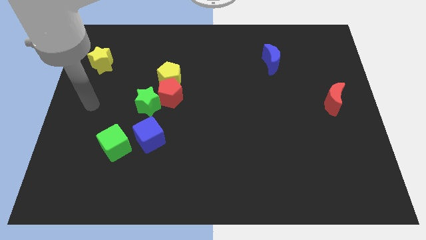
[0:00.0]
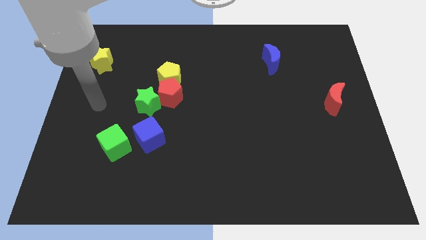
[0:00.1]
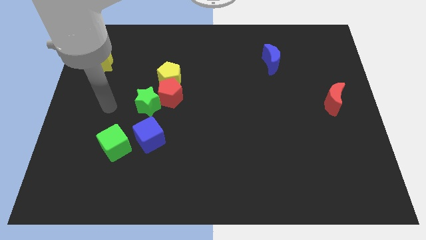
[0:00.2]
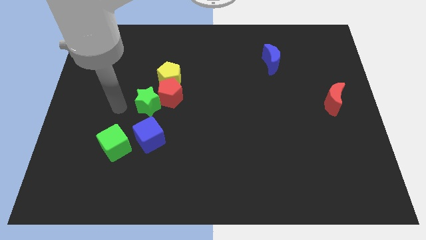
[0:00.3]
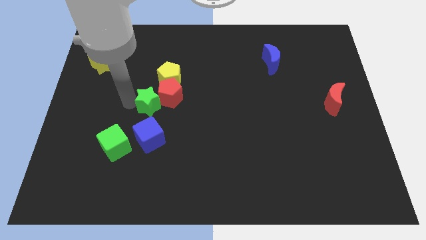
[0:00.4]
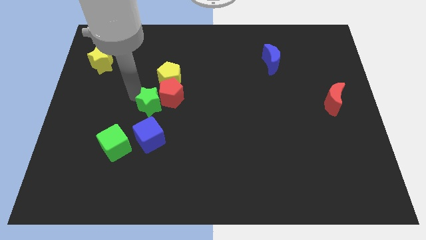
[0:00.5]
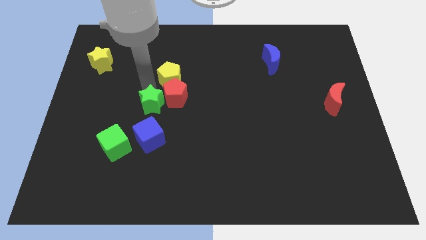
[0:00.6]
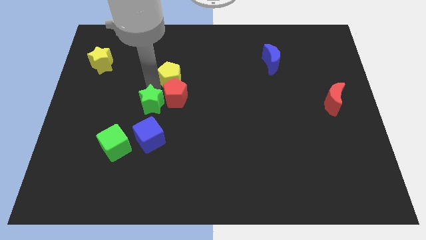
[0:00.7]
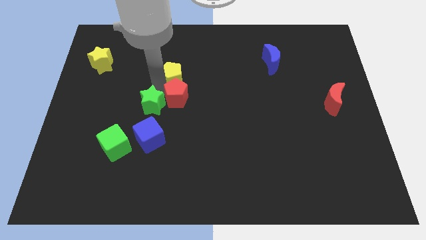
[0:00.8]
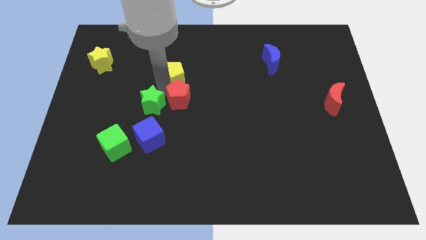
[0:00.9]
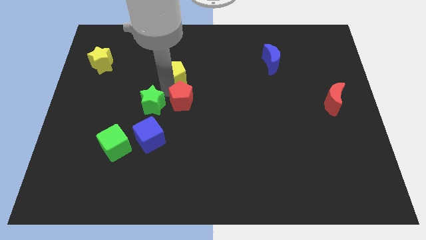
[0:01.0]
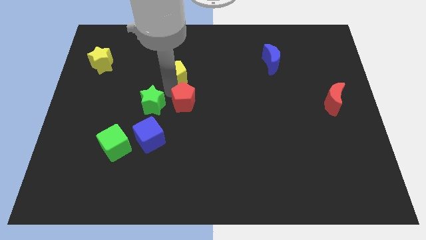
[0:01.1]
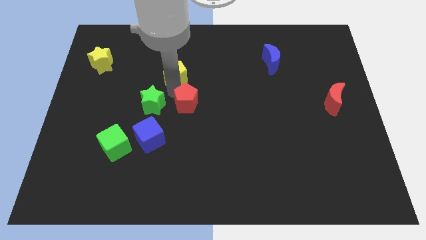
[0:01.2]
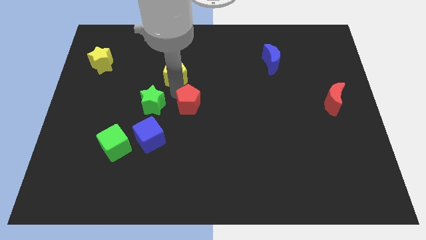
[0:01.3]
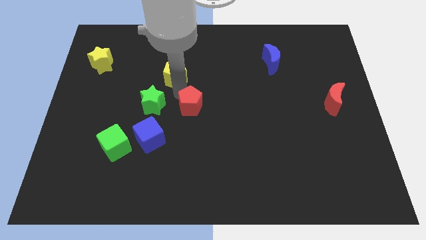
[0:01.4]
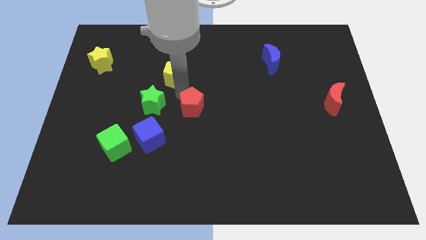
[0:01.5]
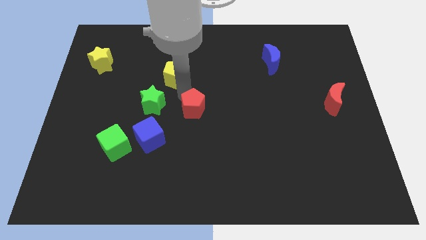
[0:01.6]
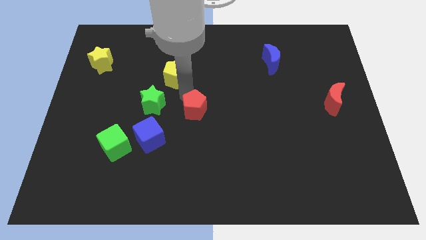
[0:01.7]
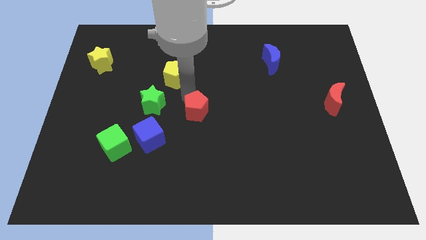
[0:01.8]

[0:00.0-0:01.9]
move the red pentagon away from the yellow pentagon and green star

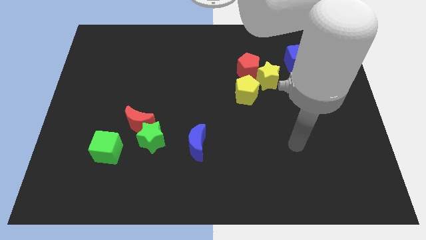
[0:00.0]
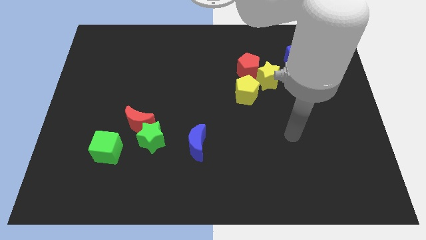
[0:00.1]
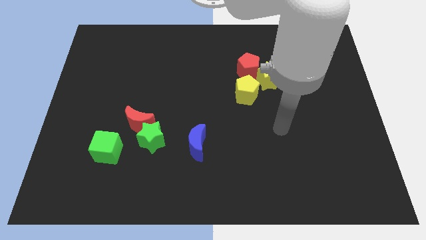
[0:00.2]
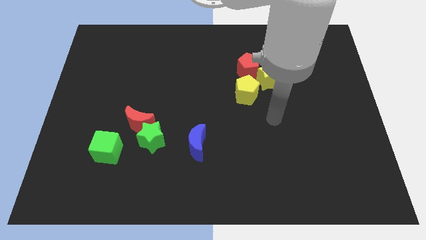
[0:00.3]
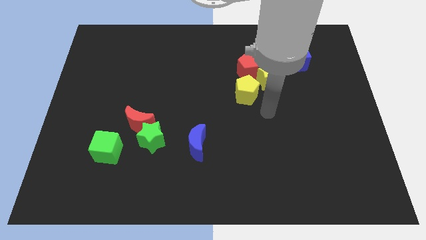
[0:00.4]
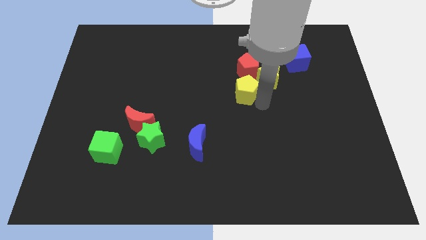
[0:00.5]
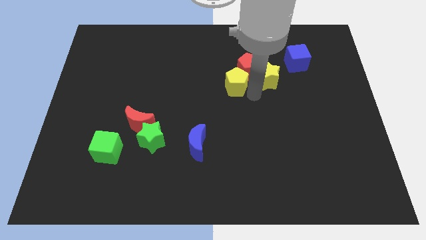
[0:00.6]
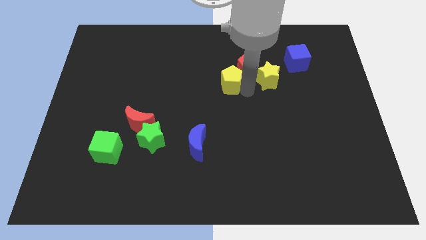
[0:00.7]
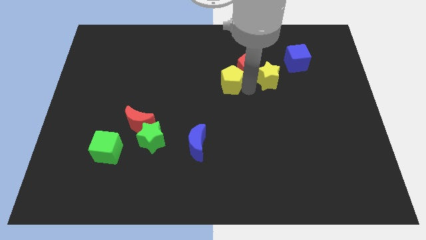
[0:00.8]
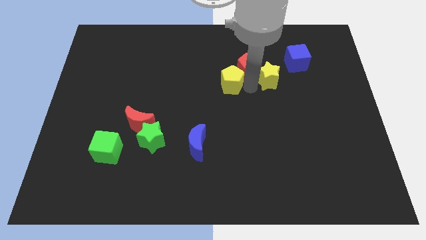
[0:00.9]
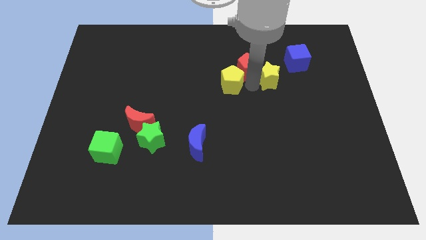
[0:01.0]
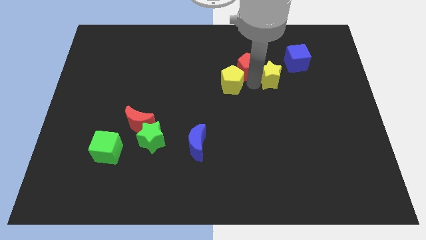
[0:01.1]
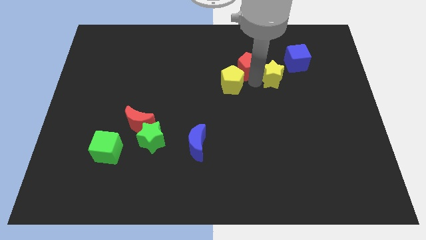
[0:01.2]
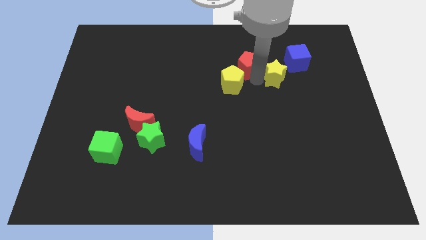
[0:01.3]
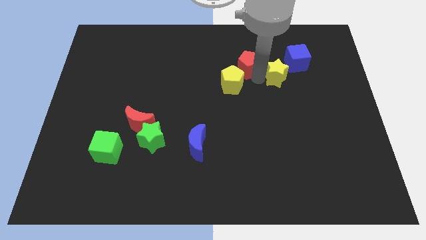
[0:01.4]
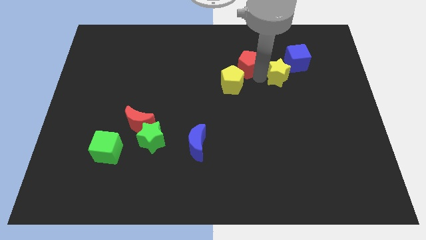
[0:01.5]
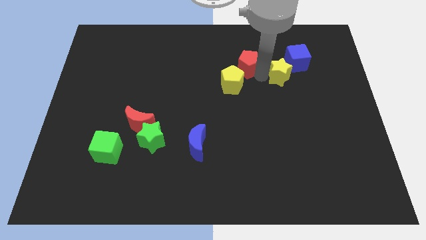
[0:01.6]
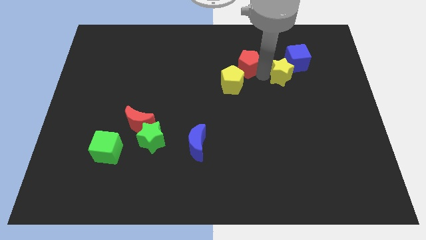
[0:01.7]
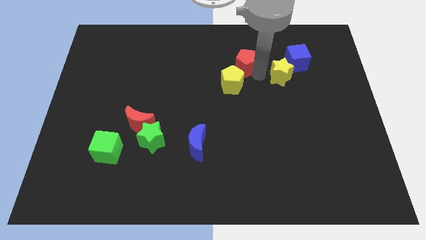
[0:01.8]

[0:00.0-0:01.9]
separate the yellow star from the red pentagon and yellow pentagon

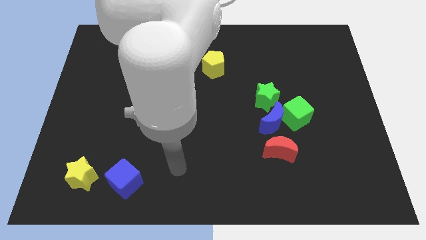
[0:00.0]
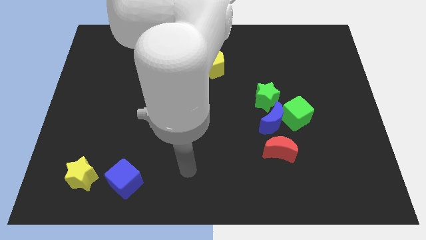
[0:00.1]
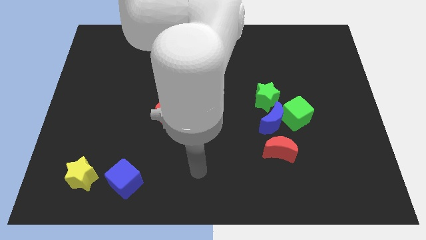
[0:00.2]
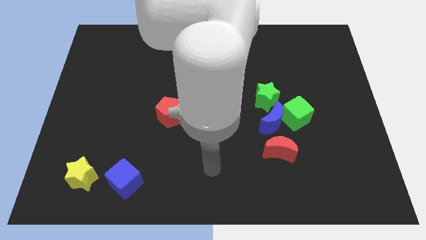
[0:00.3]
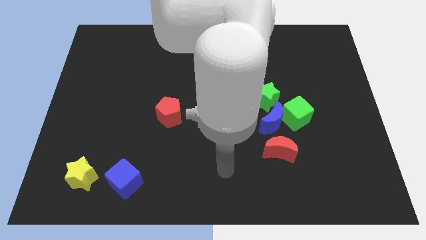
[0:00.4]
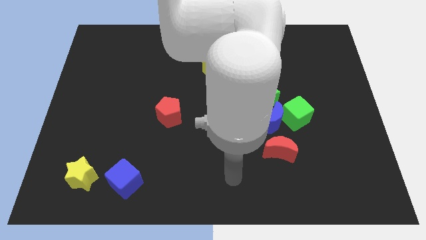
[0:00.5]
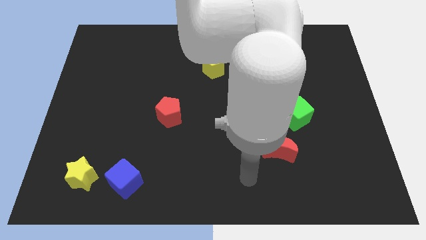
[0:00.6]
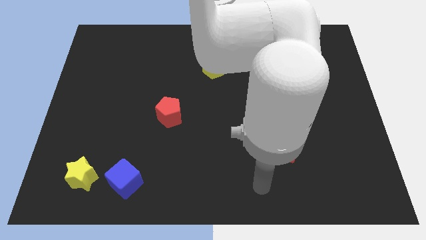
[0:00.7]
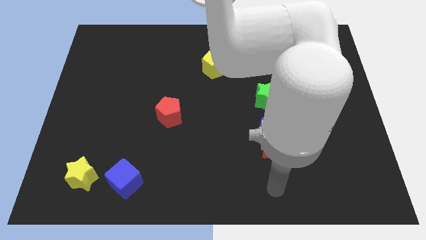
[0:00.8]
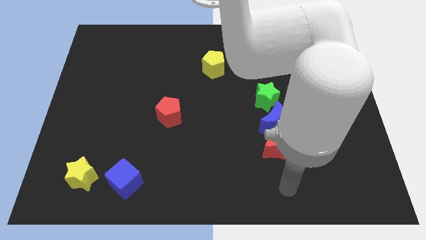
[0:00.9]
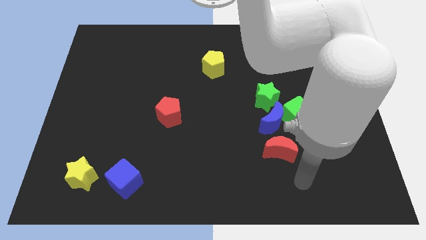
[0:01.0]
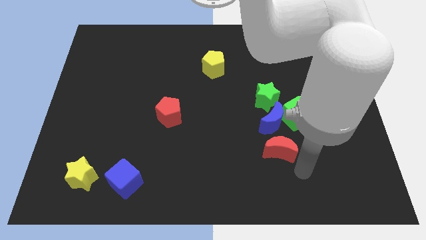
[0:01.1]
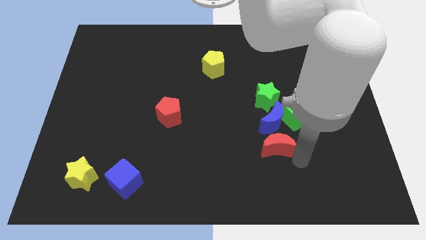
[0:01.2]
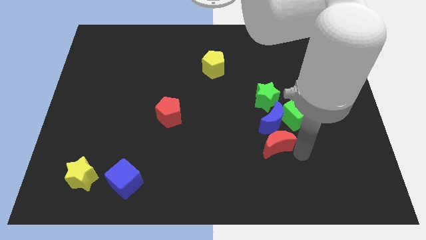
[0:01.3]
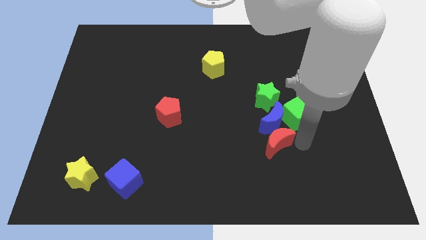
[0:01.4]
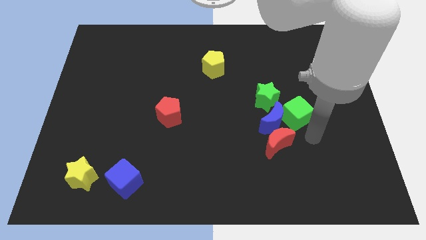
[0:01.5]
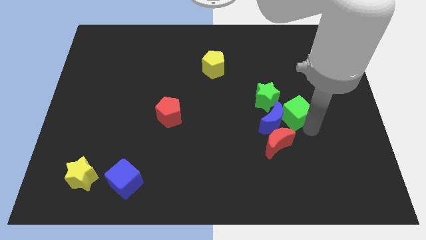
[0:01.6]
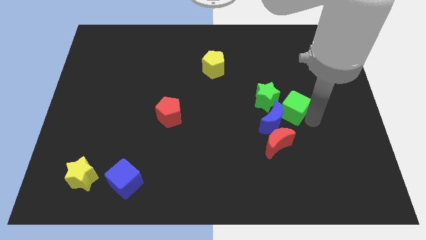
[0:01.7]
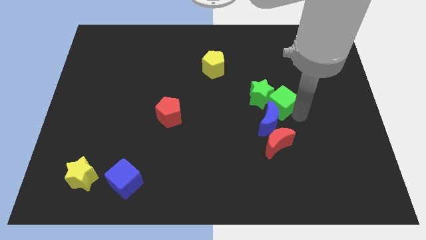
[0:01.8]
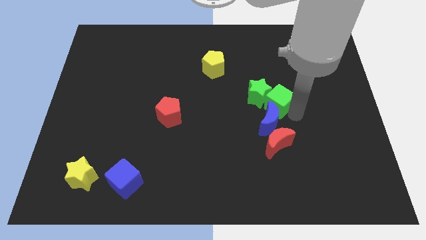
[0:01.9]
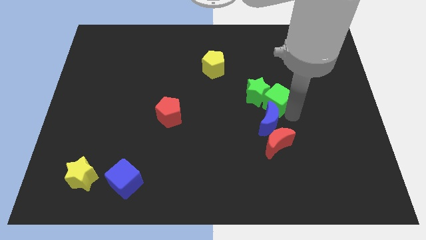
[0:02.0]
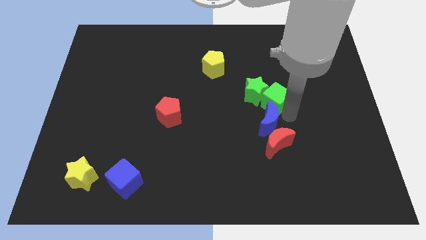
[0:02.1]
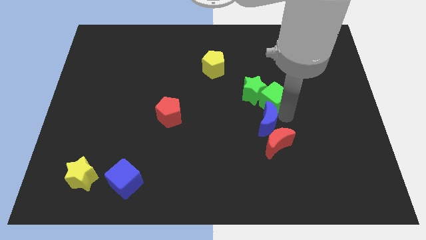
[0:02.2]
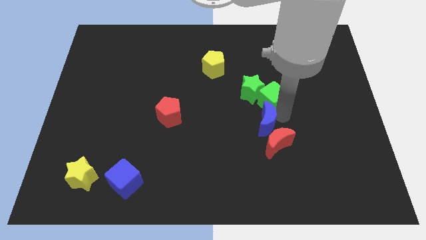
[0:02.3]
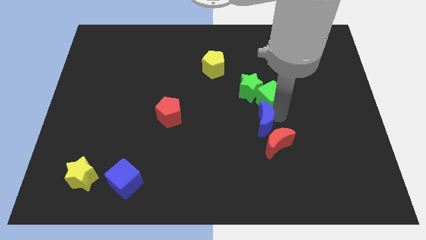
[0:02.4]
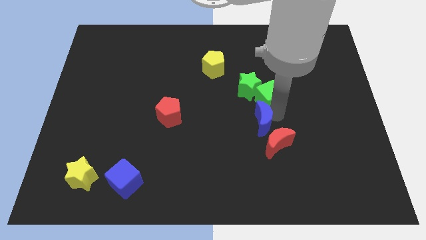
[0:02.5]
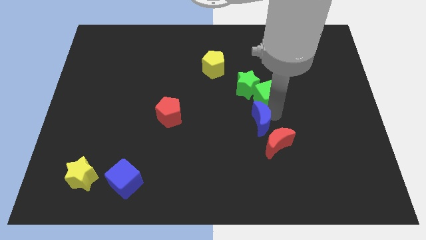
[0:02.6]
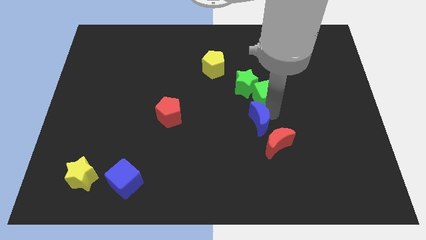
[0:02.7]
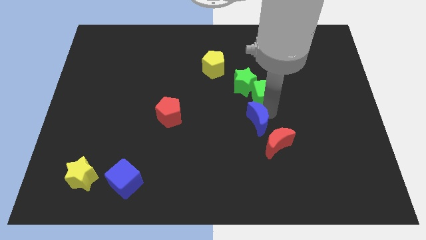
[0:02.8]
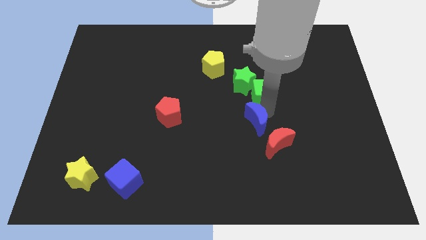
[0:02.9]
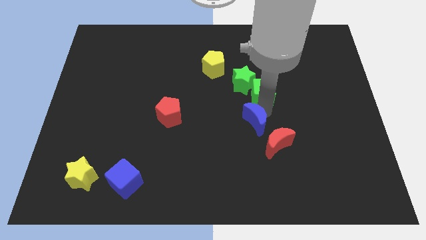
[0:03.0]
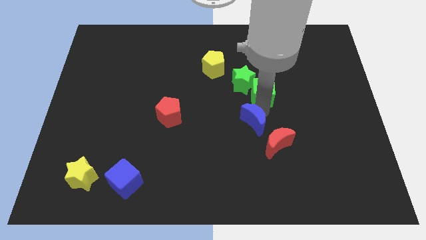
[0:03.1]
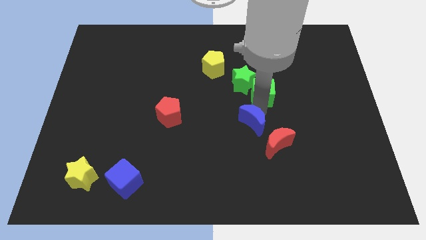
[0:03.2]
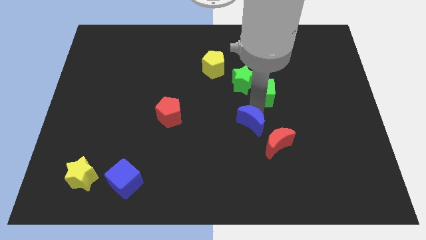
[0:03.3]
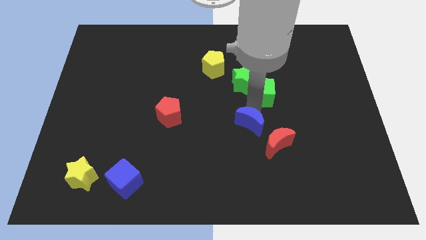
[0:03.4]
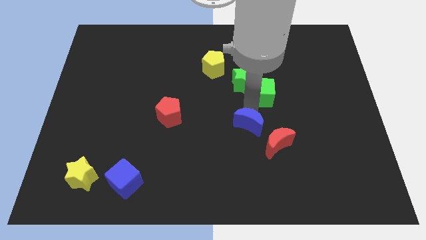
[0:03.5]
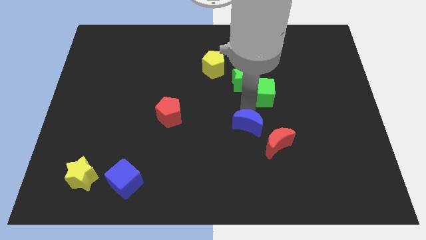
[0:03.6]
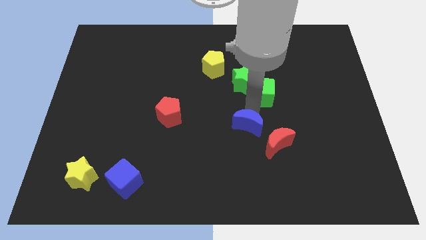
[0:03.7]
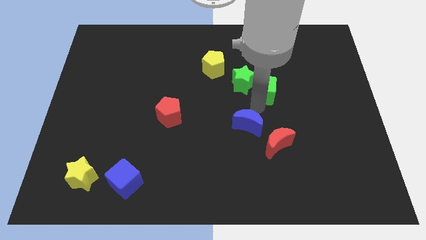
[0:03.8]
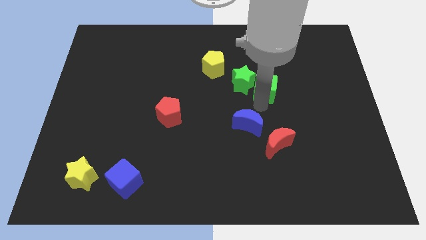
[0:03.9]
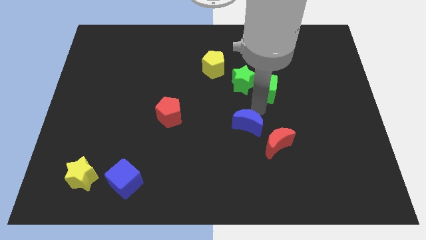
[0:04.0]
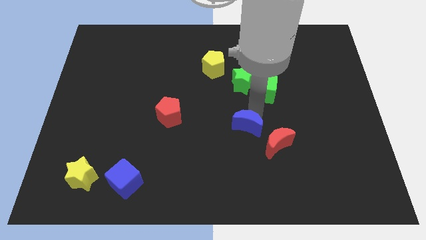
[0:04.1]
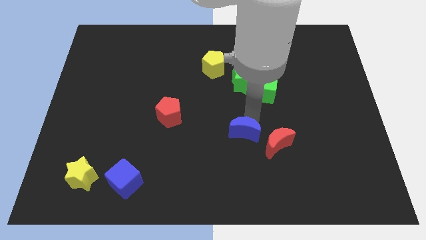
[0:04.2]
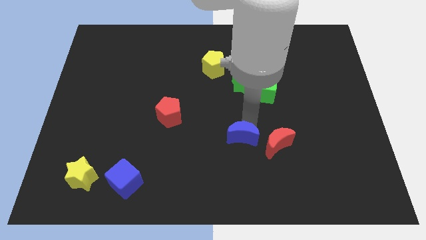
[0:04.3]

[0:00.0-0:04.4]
pull the blue moon apart from the green cube, green star, and red moon

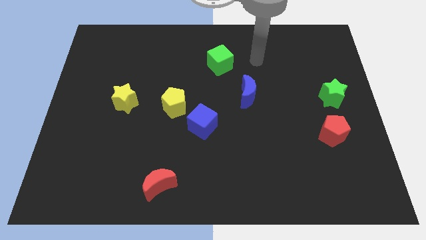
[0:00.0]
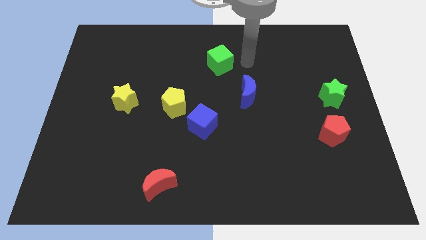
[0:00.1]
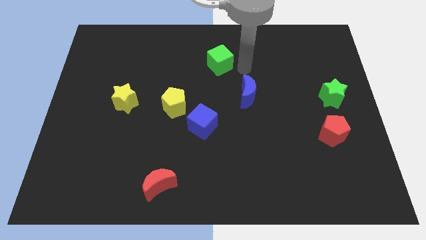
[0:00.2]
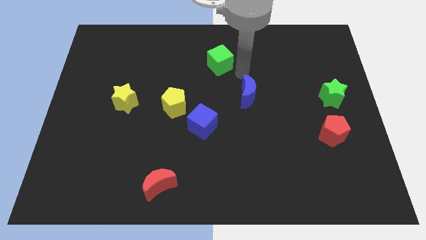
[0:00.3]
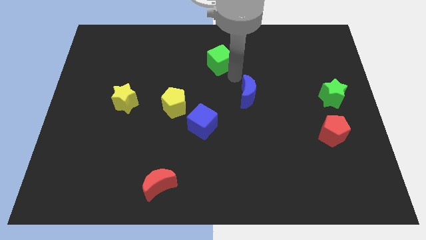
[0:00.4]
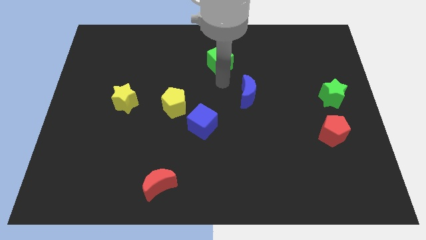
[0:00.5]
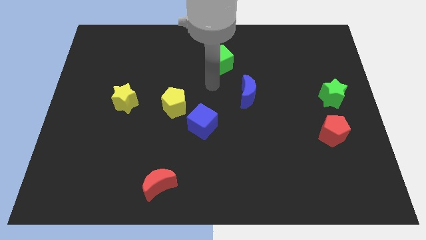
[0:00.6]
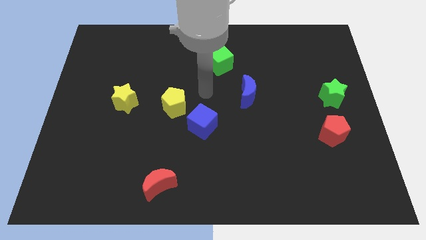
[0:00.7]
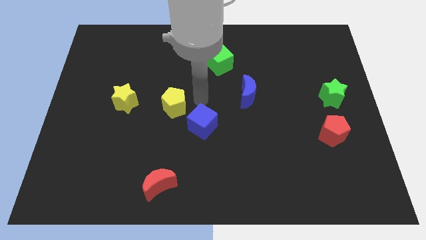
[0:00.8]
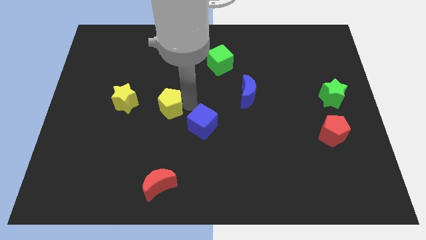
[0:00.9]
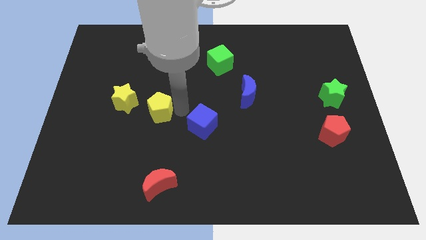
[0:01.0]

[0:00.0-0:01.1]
move the blue cube away from the yellow pentagon
